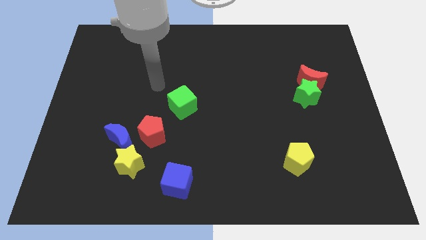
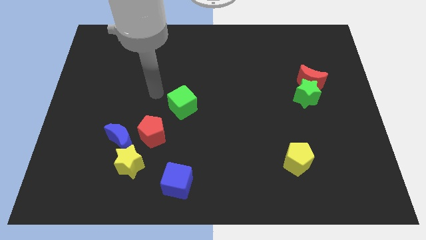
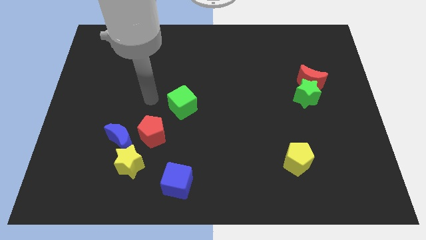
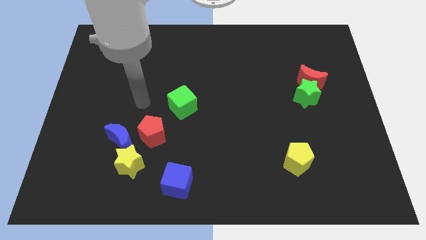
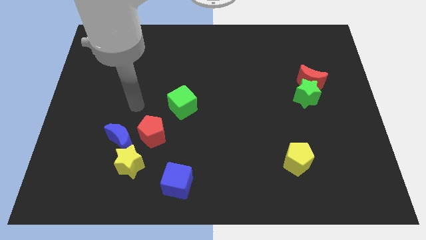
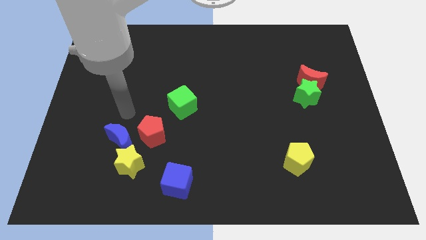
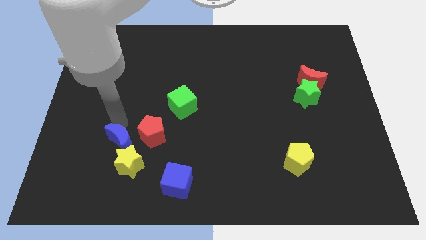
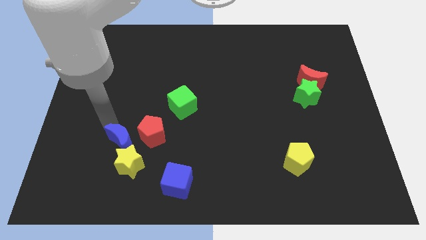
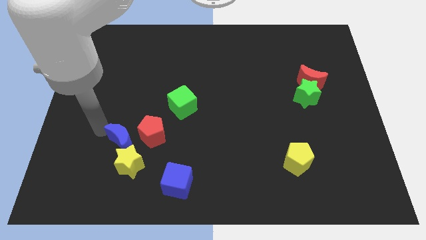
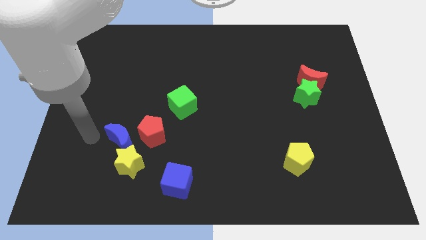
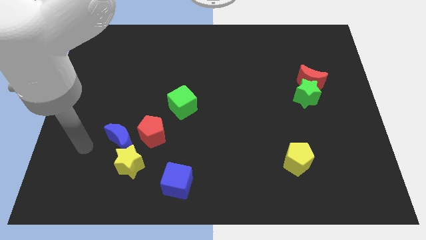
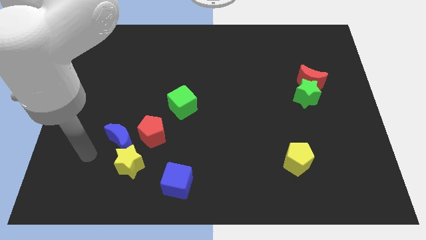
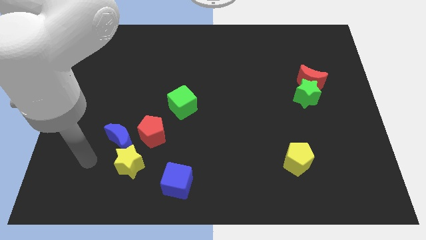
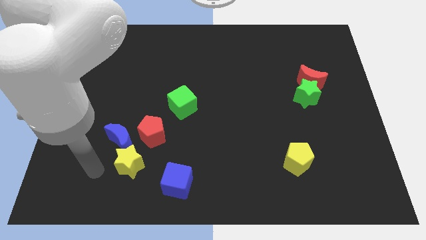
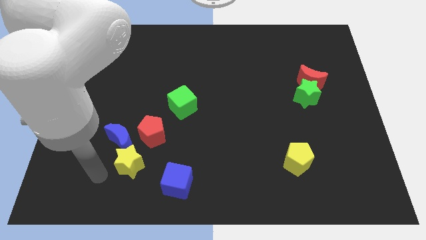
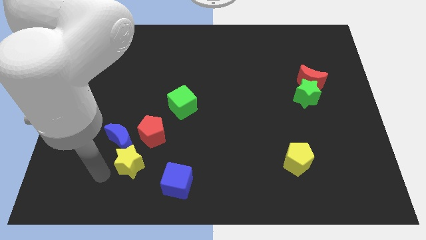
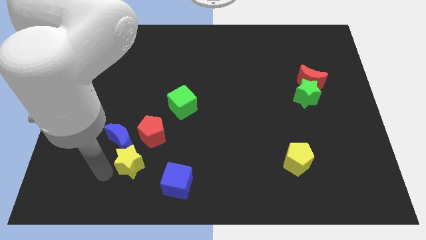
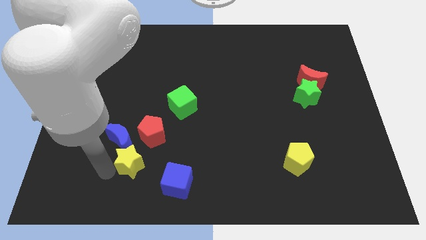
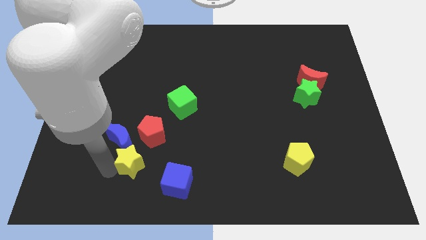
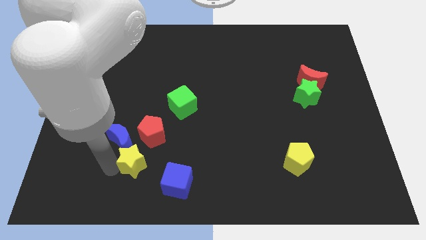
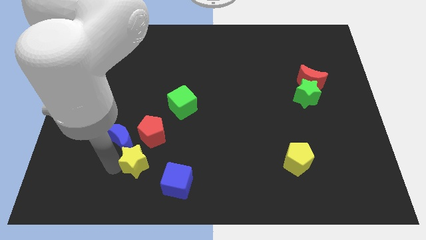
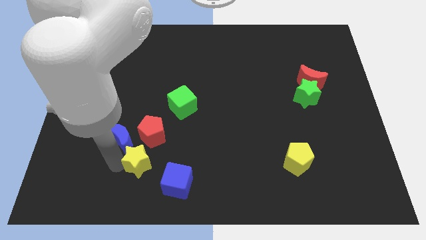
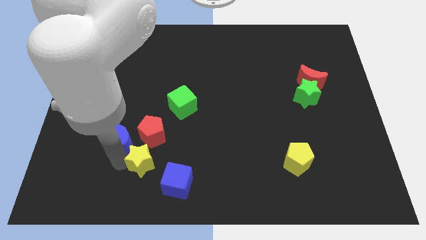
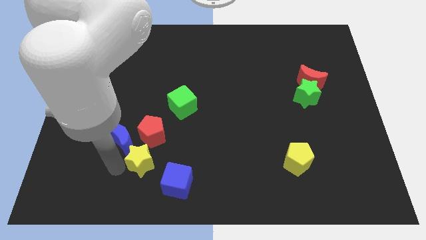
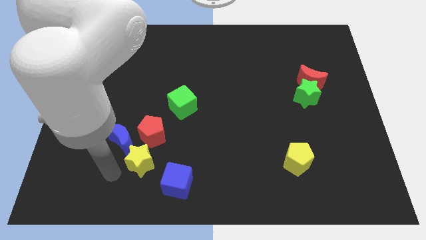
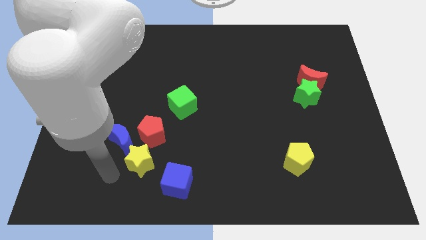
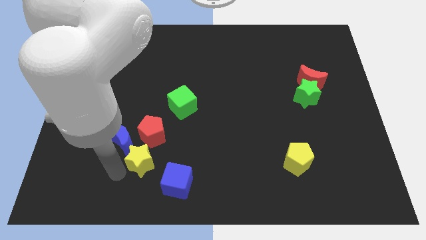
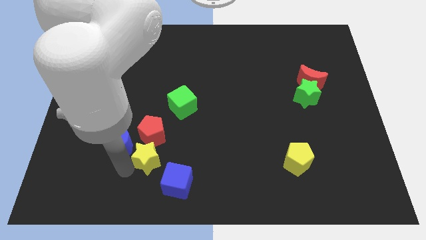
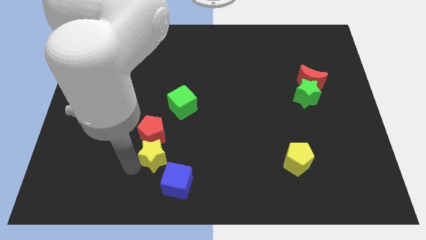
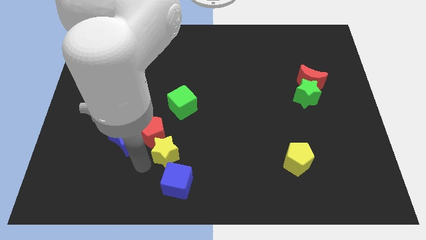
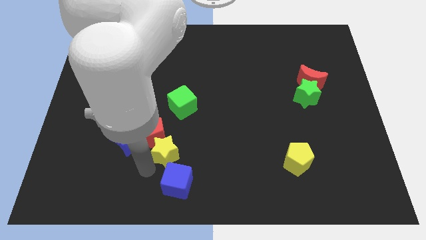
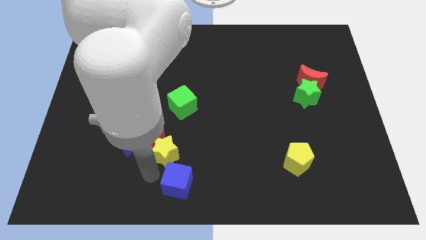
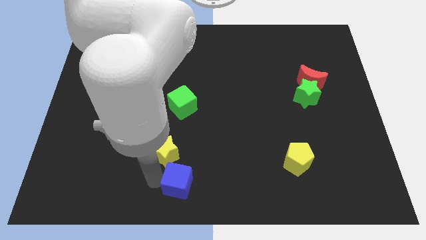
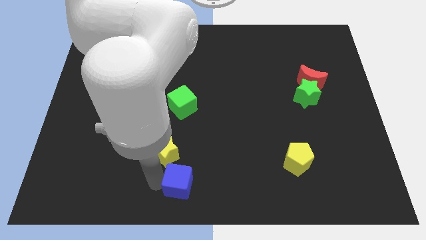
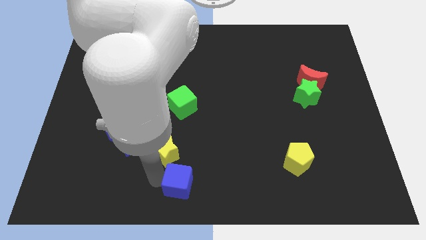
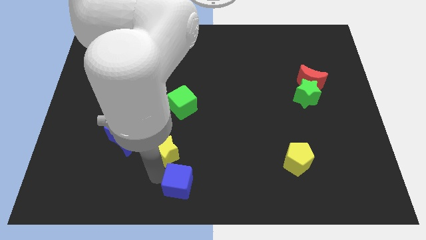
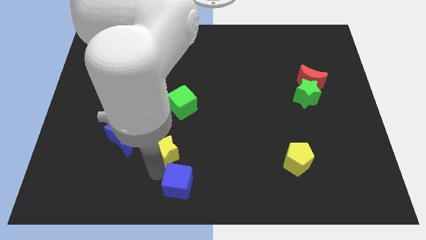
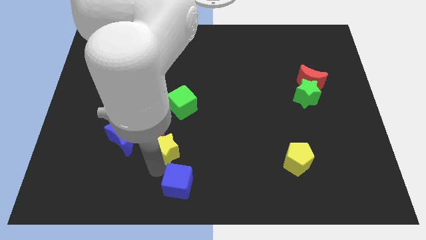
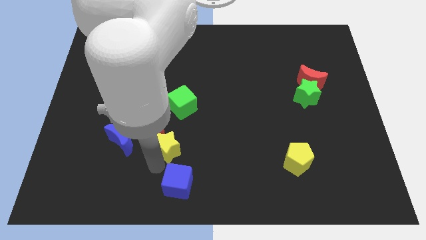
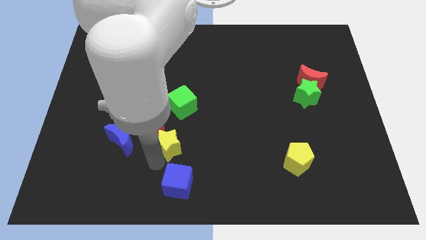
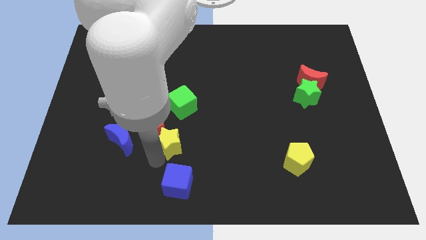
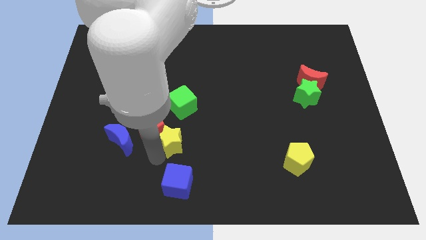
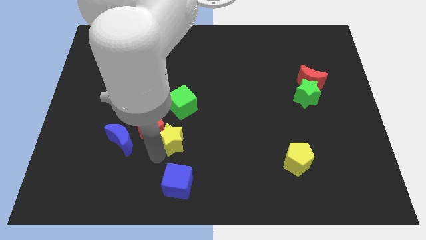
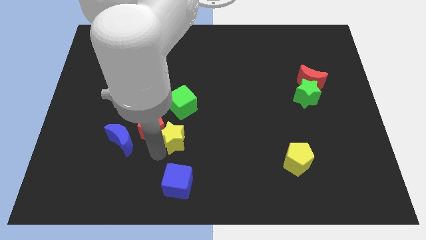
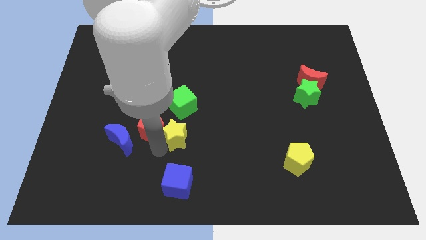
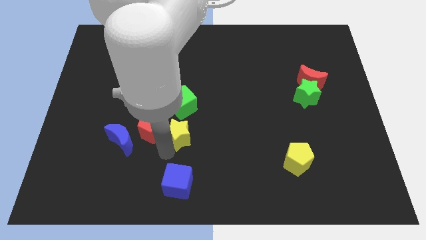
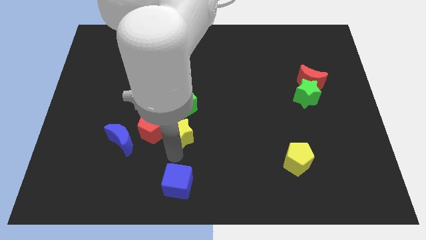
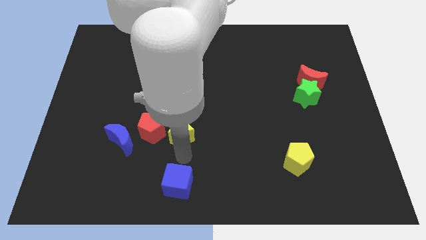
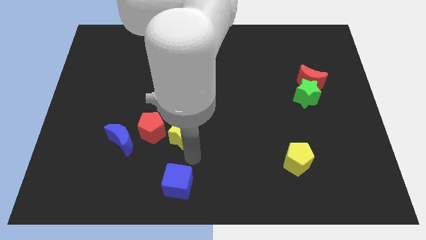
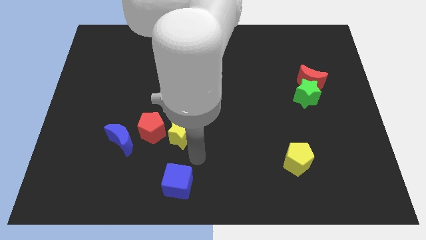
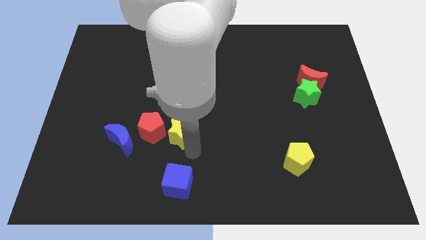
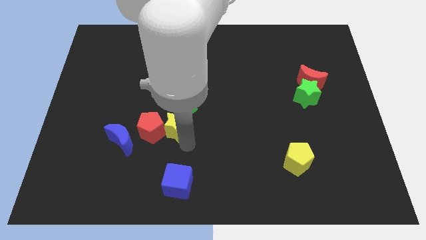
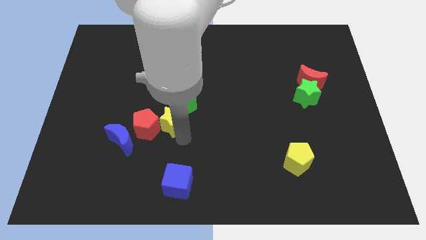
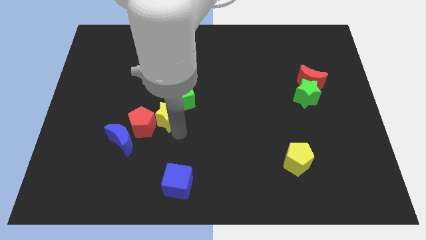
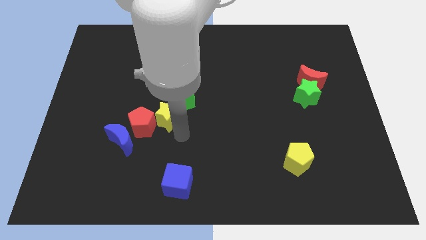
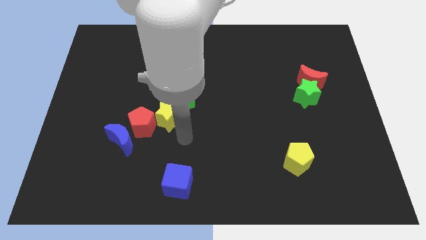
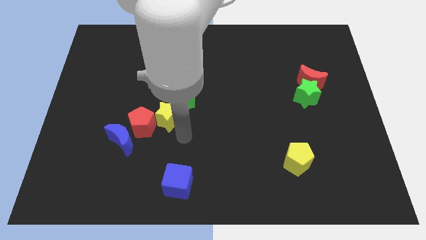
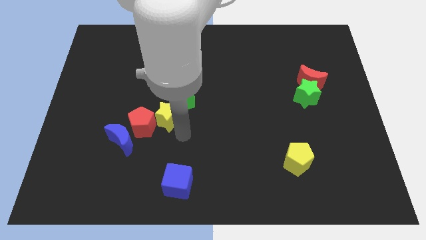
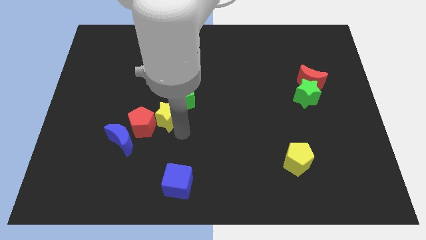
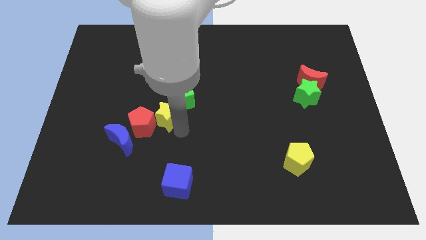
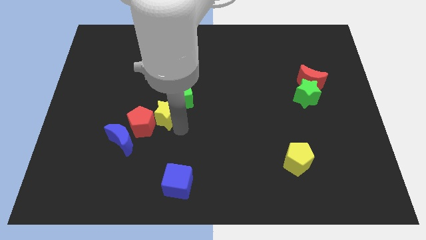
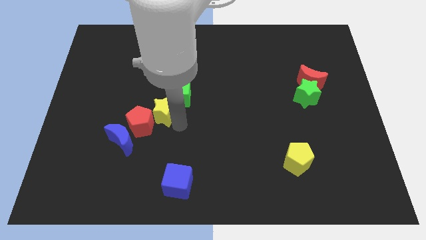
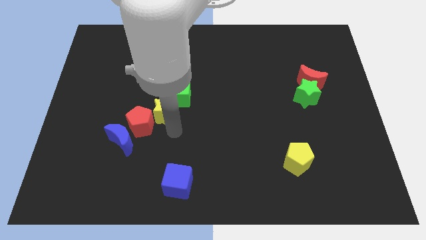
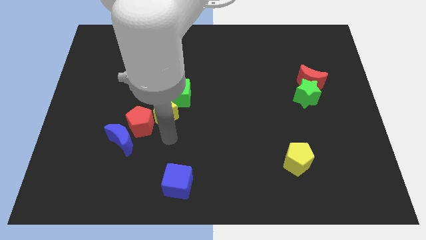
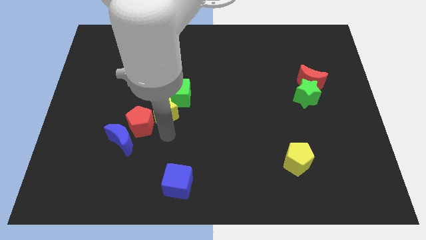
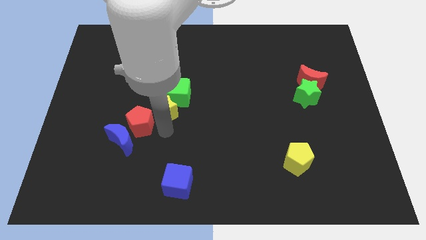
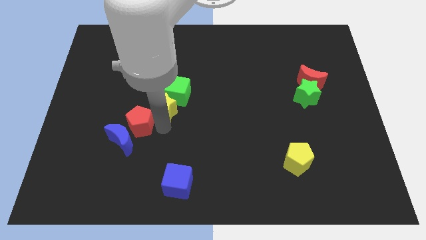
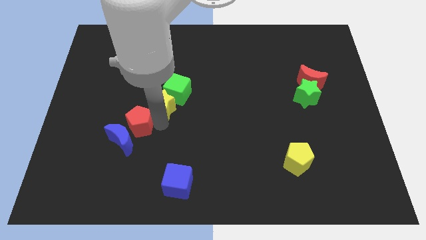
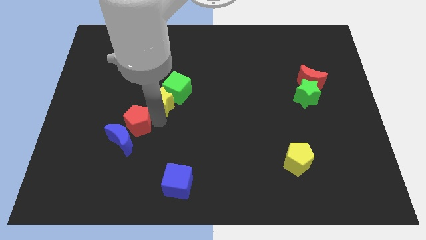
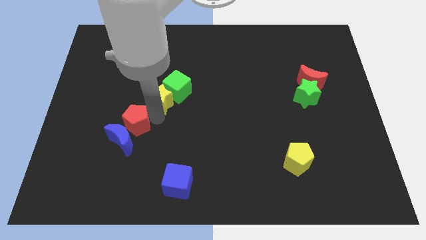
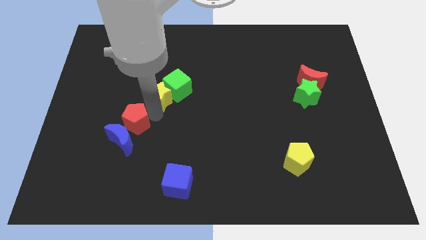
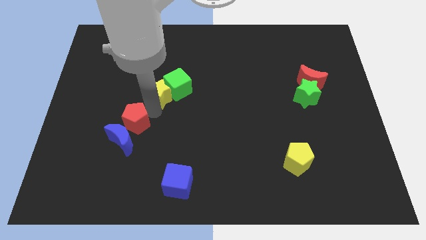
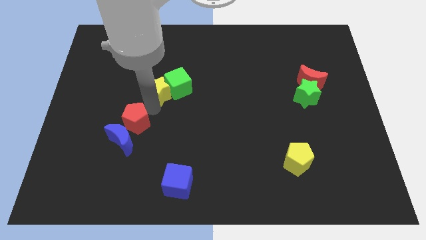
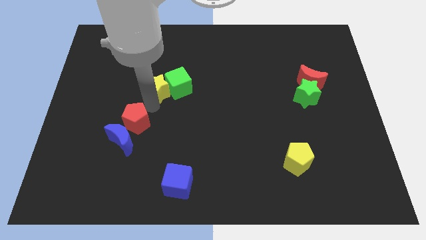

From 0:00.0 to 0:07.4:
move the yellow star to the top left side of the green cube

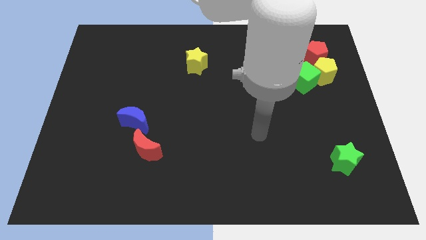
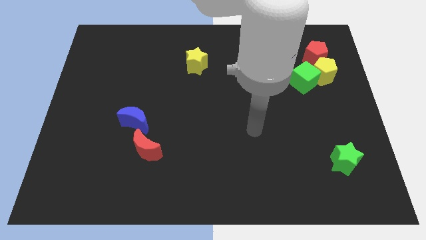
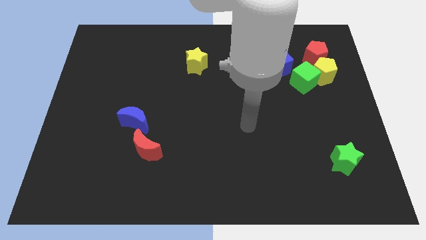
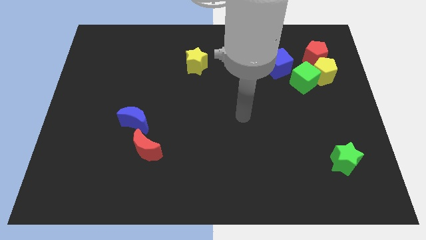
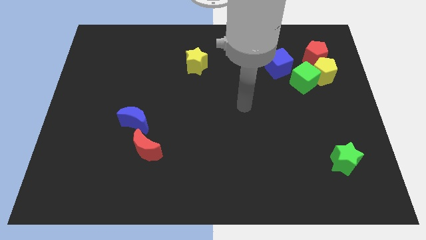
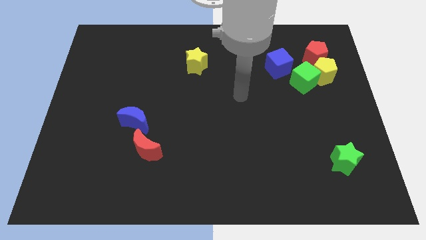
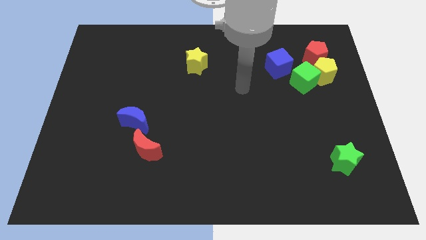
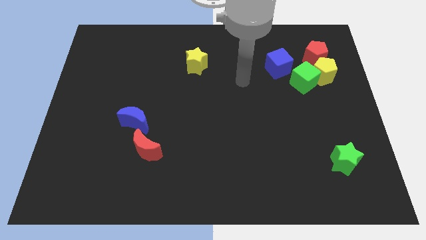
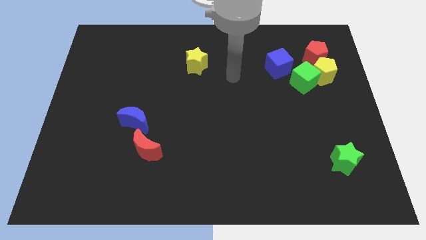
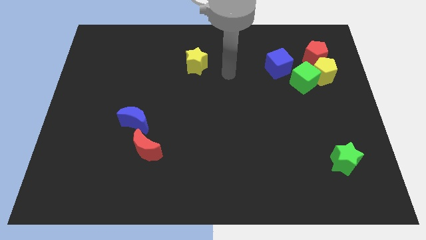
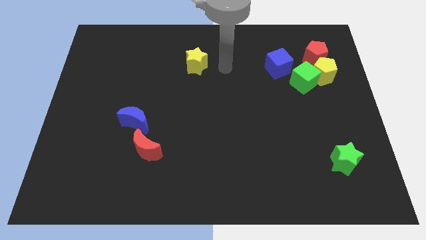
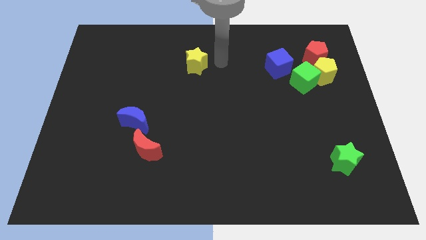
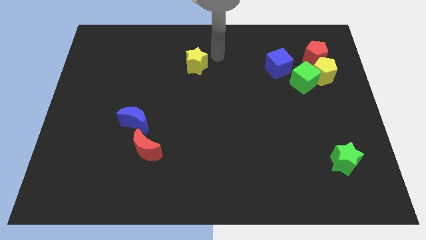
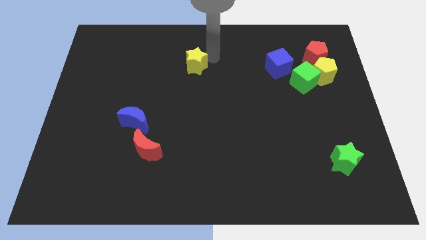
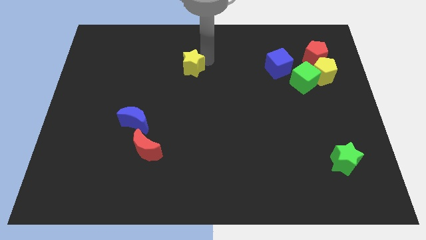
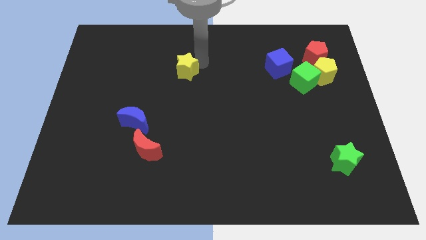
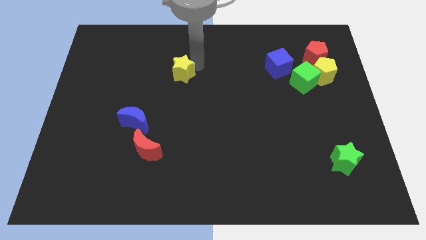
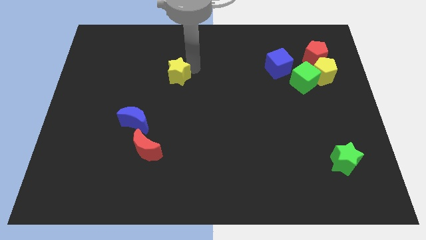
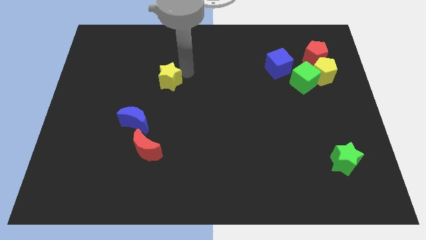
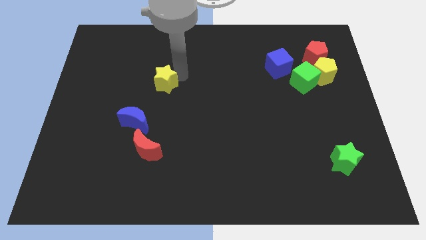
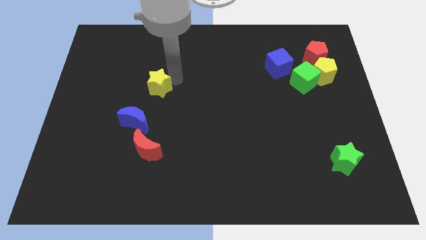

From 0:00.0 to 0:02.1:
put the yellow star to the top side of the blue moon
